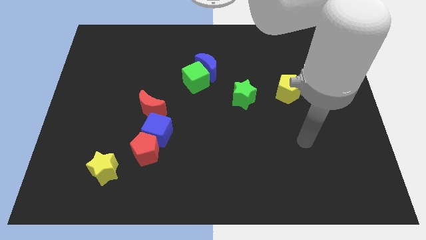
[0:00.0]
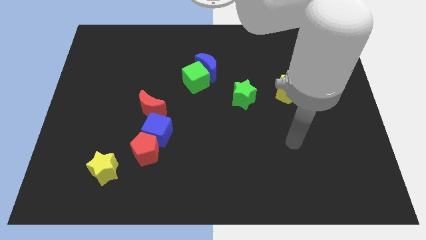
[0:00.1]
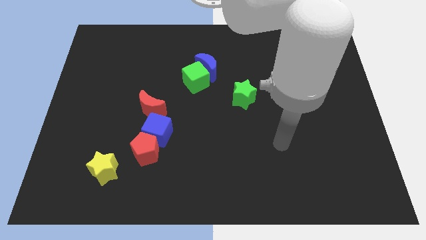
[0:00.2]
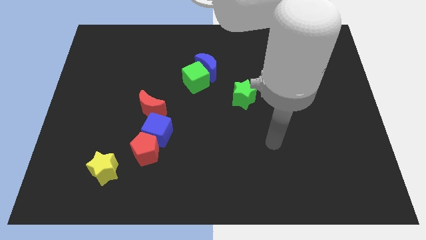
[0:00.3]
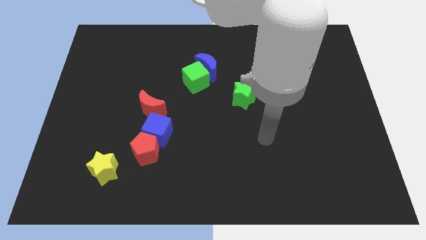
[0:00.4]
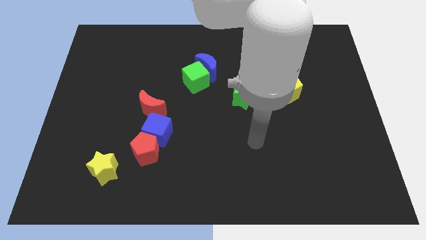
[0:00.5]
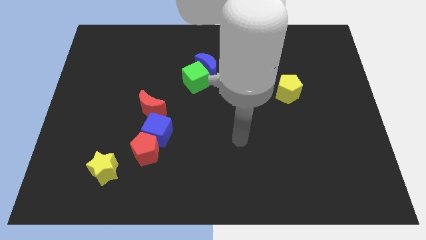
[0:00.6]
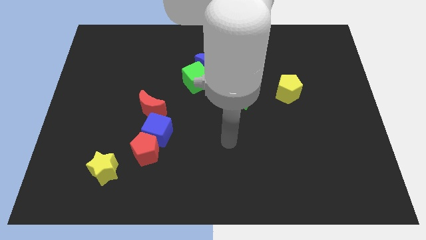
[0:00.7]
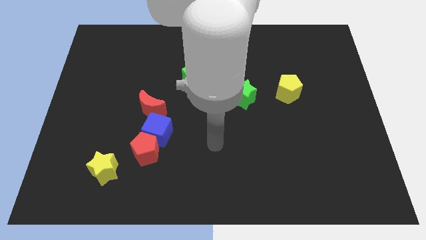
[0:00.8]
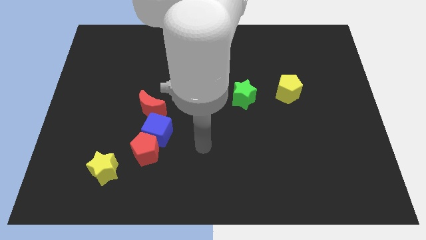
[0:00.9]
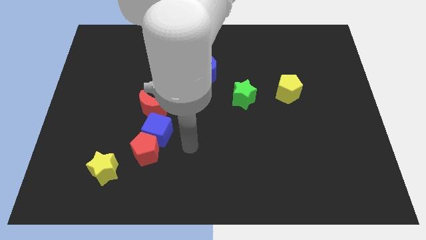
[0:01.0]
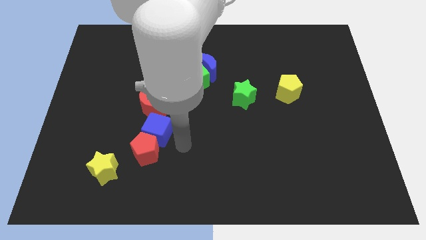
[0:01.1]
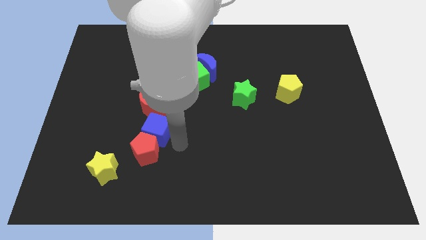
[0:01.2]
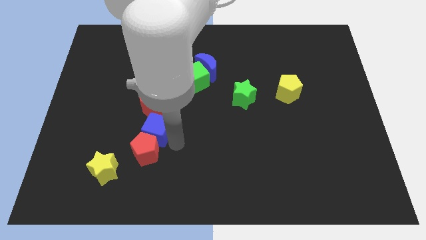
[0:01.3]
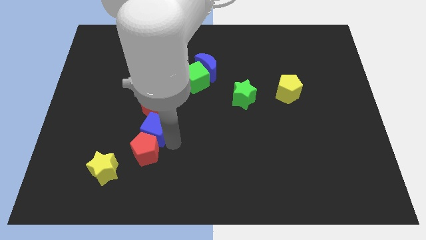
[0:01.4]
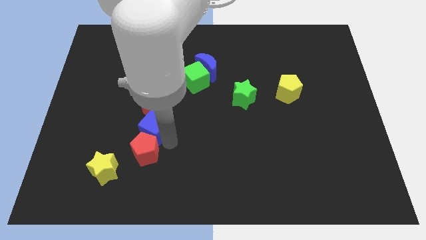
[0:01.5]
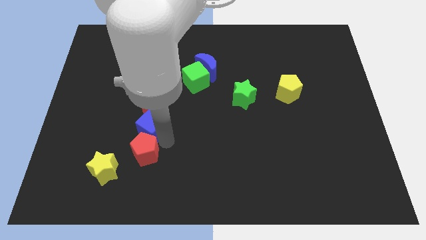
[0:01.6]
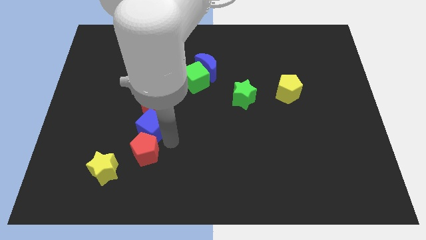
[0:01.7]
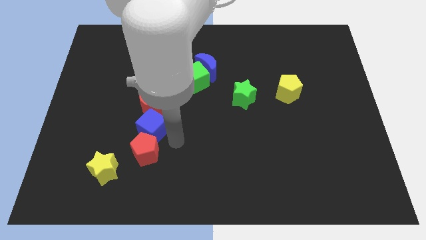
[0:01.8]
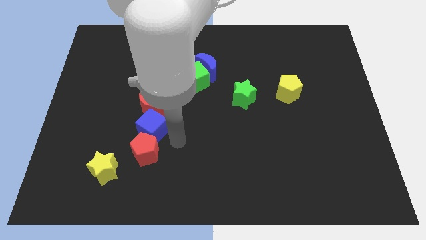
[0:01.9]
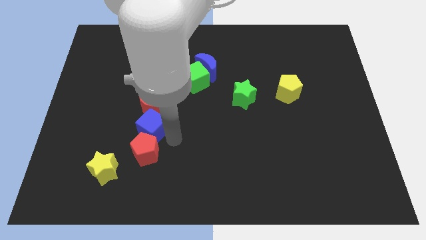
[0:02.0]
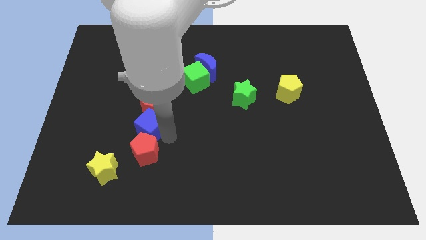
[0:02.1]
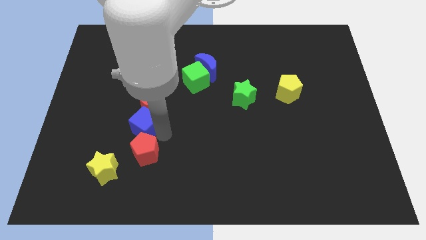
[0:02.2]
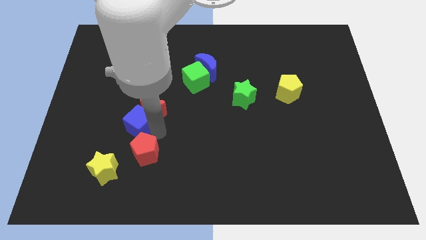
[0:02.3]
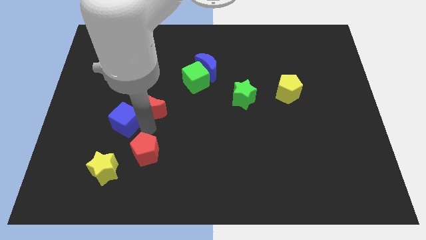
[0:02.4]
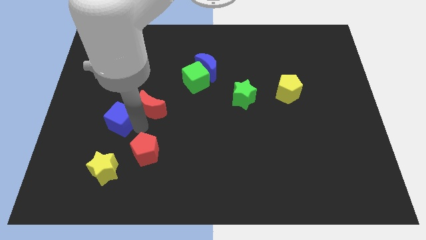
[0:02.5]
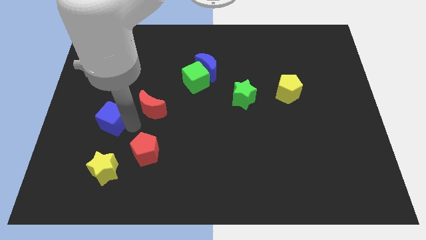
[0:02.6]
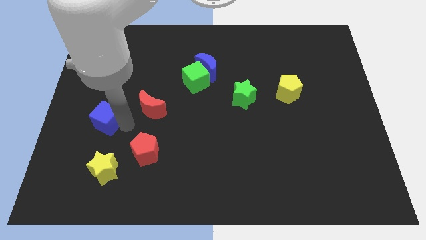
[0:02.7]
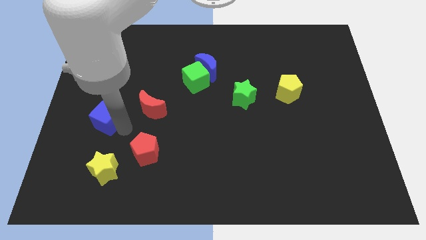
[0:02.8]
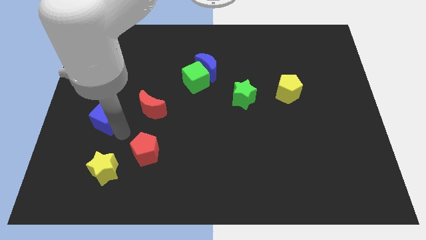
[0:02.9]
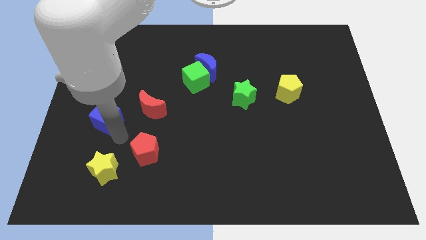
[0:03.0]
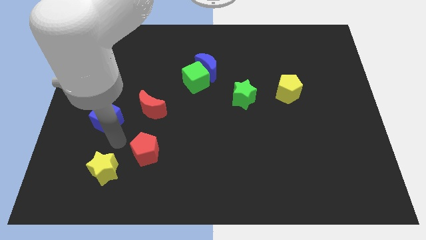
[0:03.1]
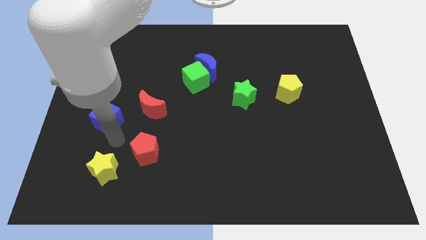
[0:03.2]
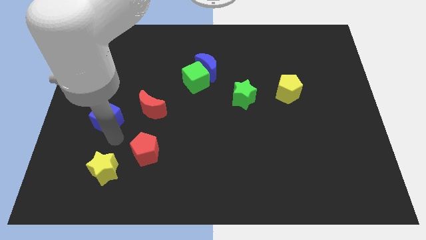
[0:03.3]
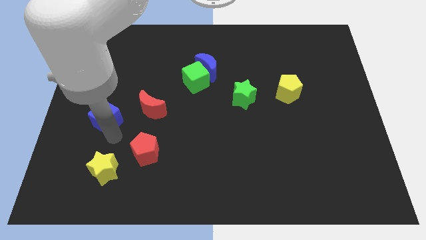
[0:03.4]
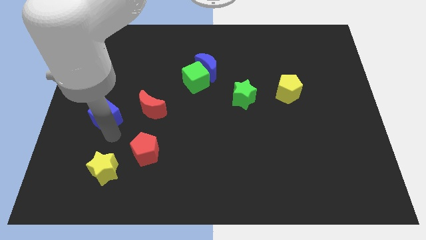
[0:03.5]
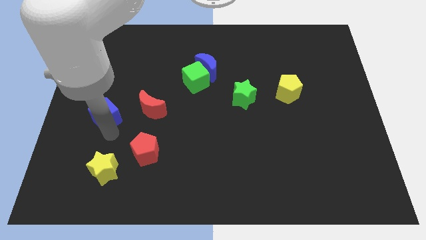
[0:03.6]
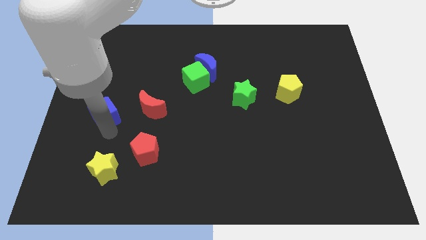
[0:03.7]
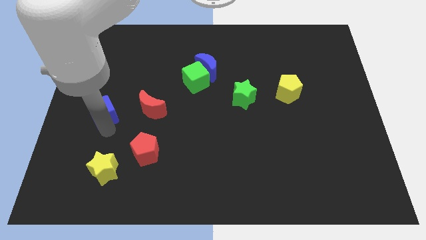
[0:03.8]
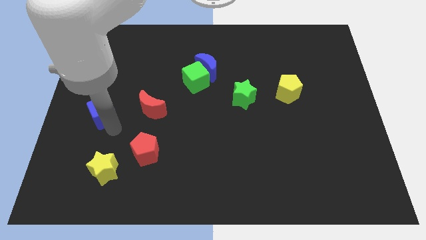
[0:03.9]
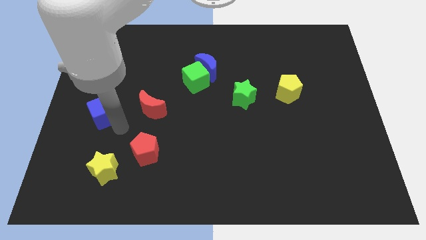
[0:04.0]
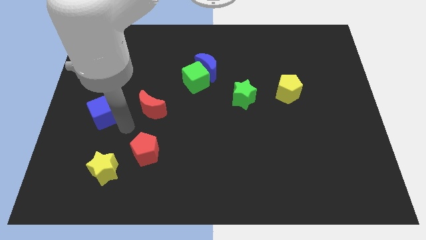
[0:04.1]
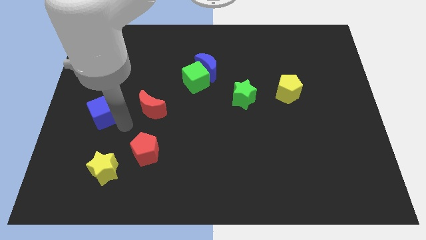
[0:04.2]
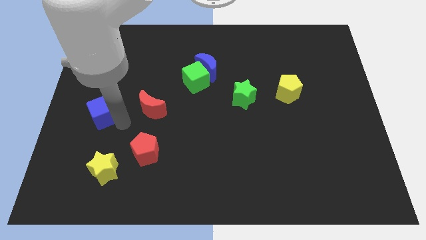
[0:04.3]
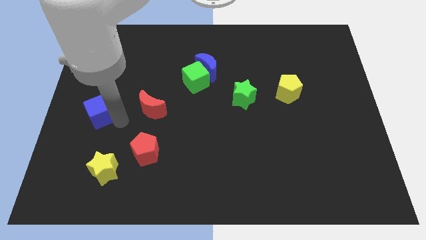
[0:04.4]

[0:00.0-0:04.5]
move the blue cube to the left side of the board

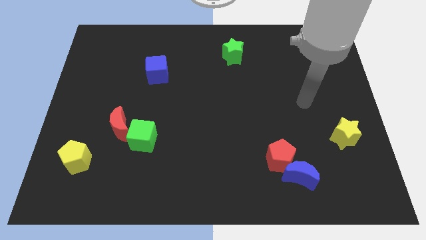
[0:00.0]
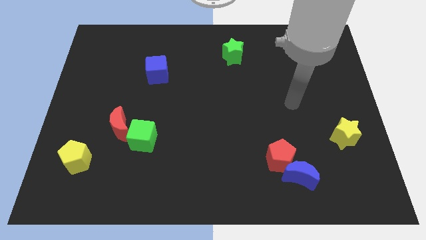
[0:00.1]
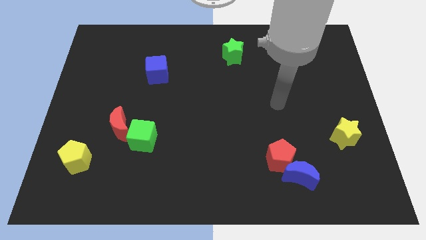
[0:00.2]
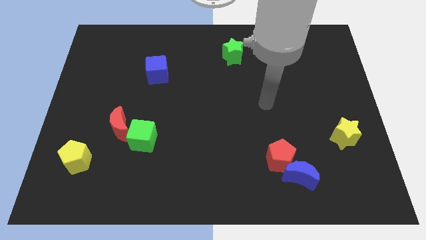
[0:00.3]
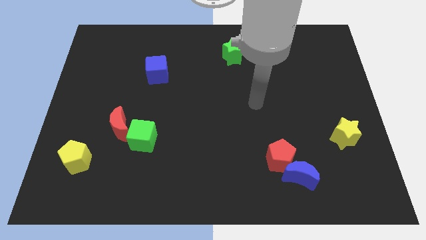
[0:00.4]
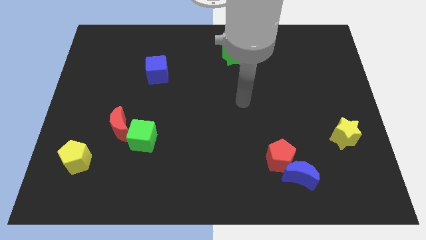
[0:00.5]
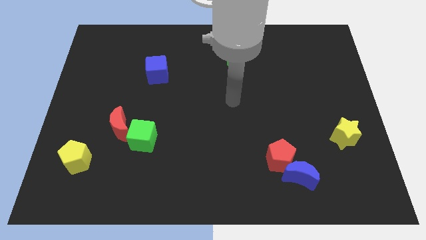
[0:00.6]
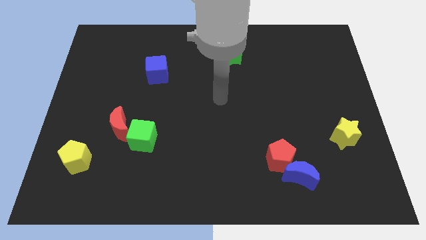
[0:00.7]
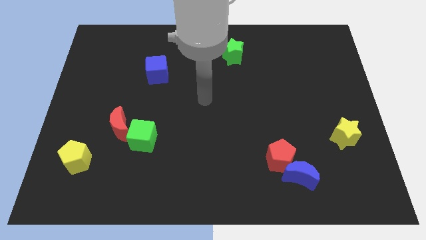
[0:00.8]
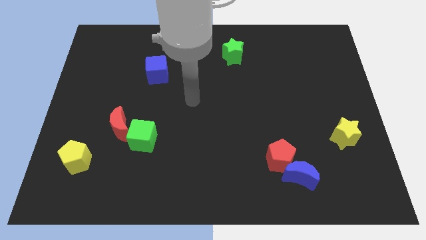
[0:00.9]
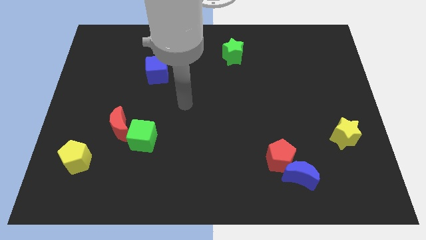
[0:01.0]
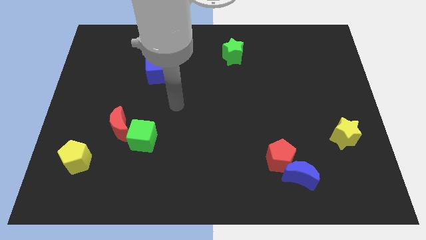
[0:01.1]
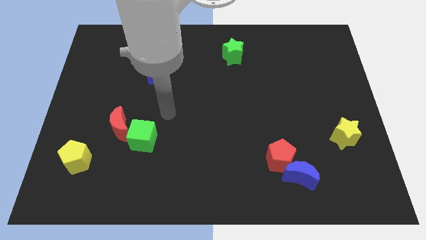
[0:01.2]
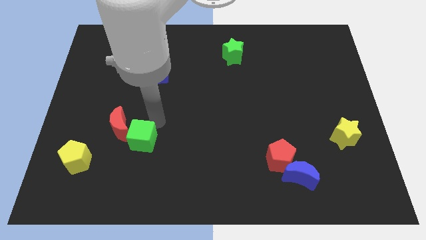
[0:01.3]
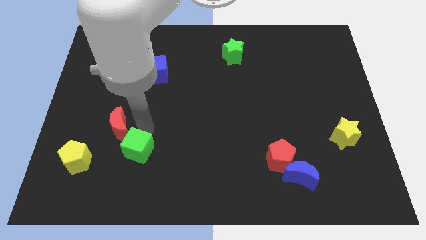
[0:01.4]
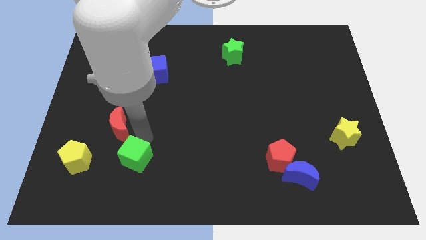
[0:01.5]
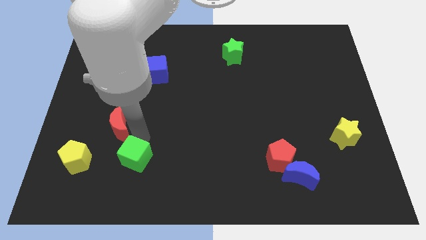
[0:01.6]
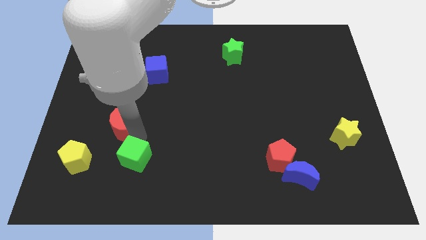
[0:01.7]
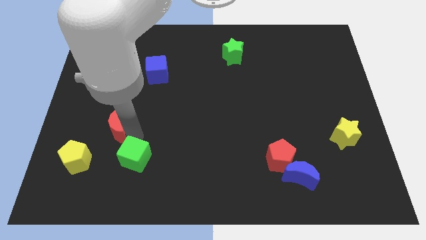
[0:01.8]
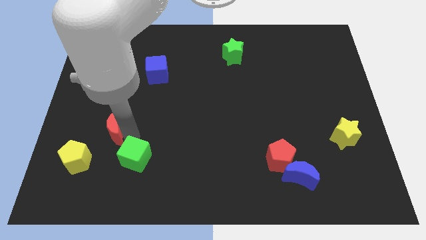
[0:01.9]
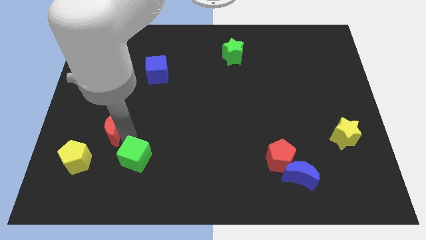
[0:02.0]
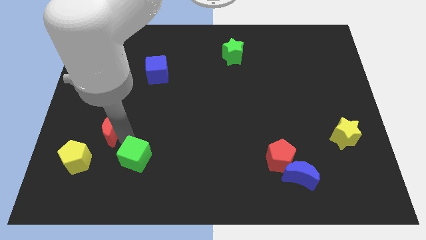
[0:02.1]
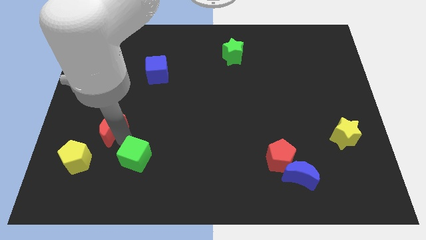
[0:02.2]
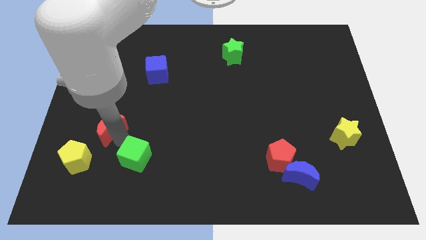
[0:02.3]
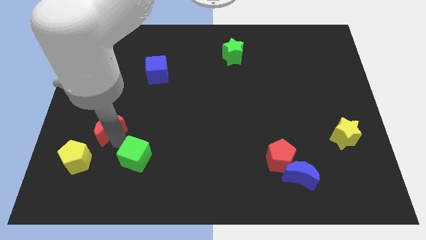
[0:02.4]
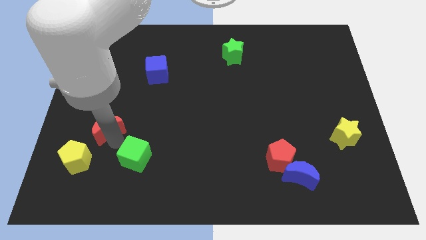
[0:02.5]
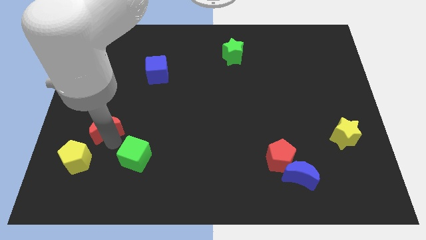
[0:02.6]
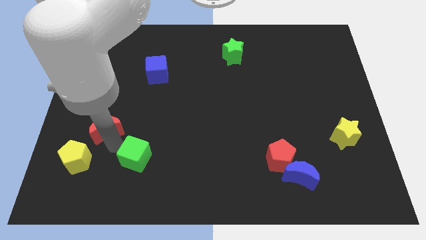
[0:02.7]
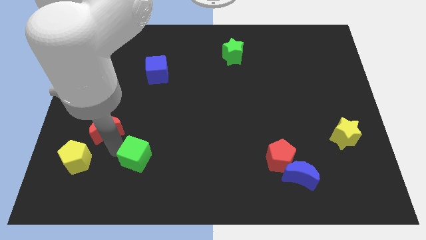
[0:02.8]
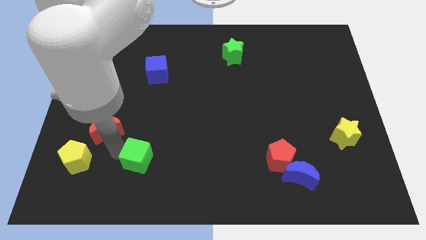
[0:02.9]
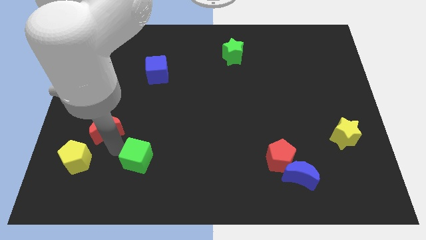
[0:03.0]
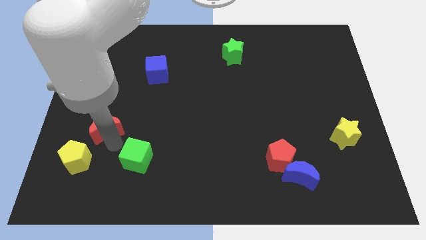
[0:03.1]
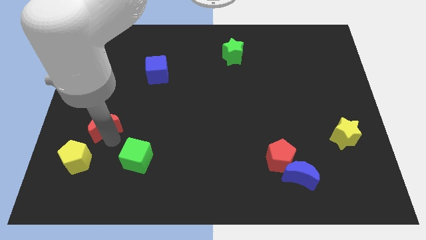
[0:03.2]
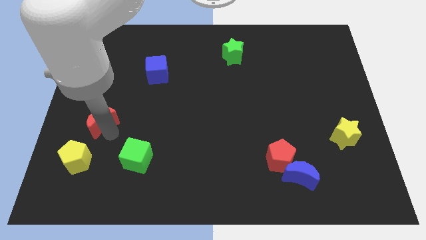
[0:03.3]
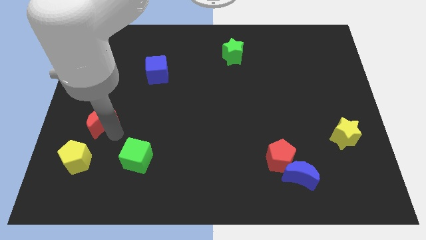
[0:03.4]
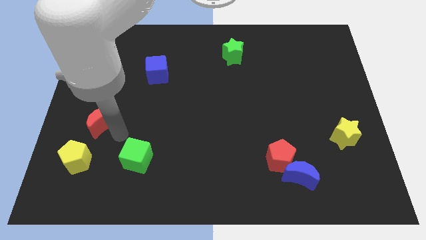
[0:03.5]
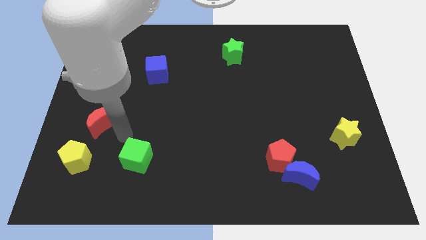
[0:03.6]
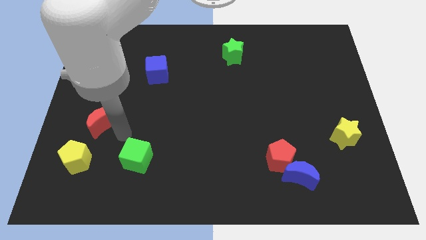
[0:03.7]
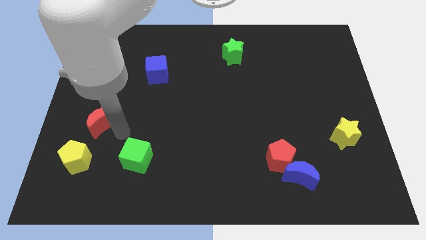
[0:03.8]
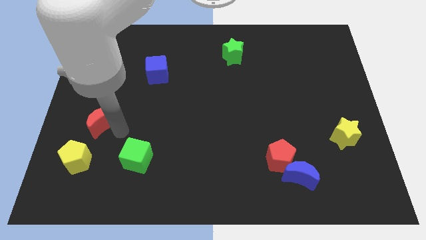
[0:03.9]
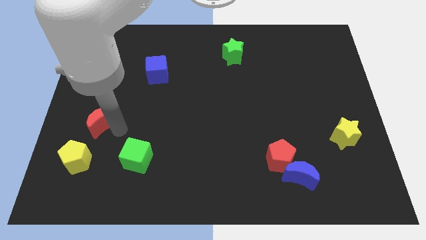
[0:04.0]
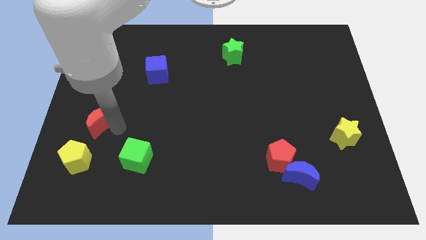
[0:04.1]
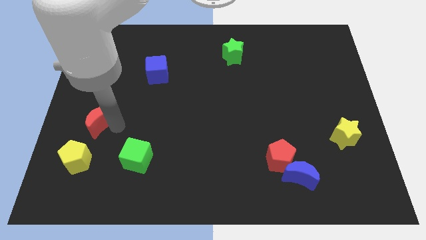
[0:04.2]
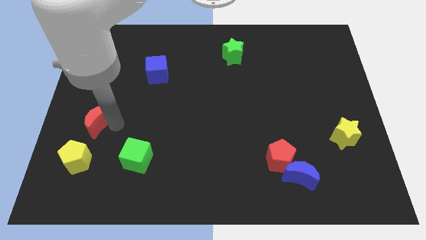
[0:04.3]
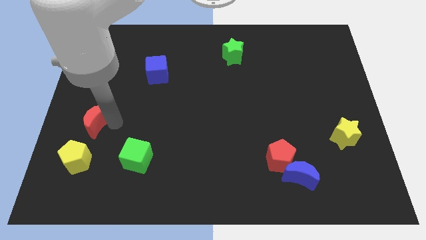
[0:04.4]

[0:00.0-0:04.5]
move the red moon to the left side
